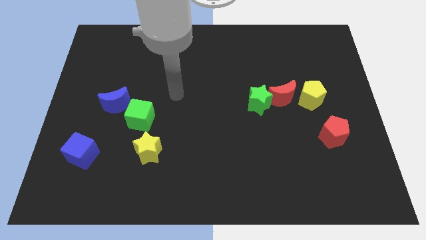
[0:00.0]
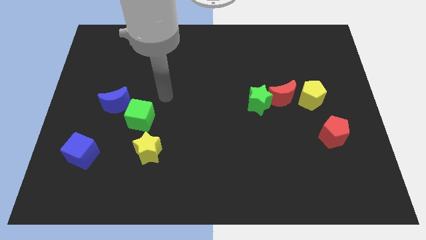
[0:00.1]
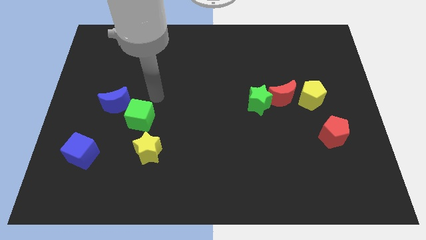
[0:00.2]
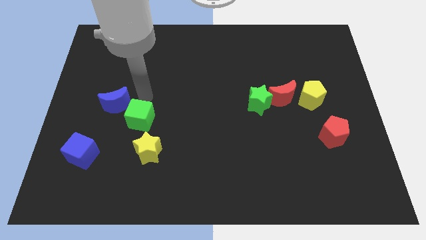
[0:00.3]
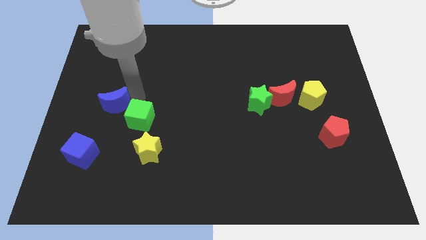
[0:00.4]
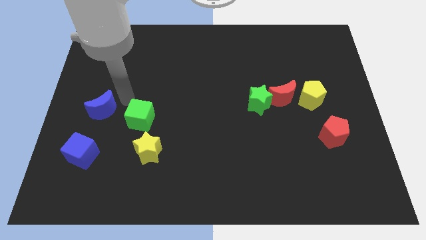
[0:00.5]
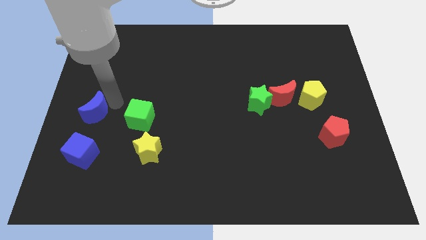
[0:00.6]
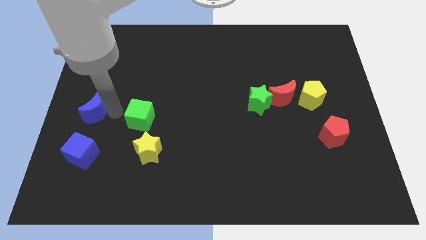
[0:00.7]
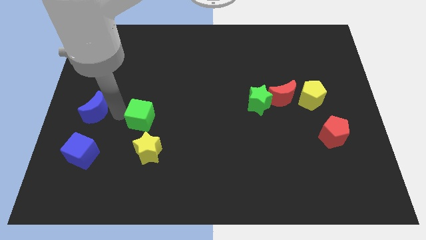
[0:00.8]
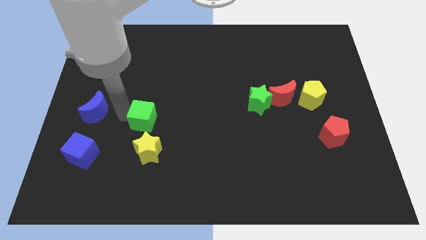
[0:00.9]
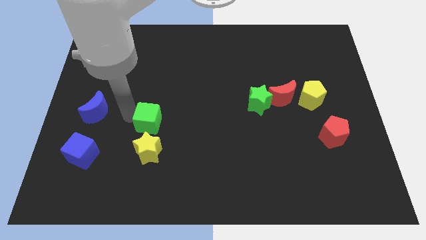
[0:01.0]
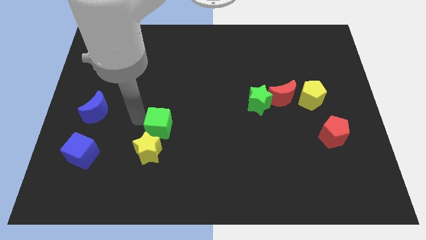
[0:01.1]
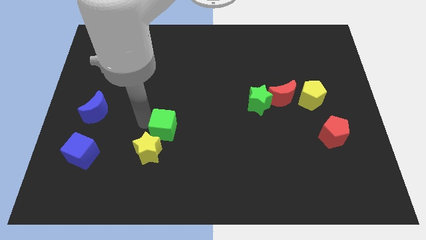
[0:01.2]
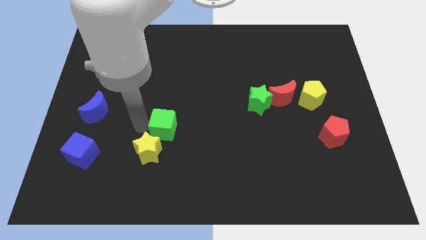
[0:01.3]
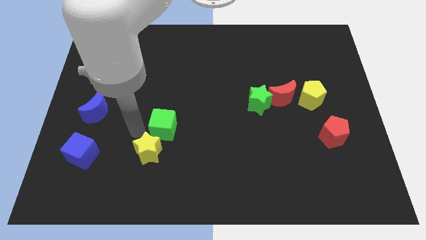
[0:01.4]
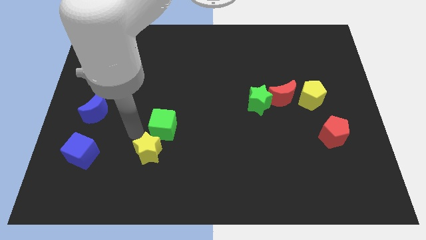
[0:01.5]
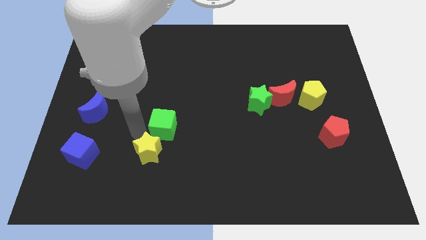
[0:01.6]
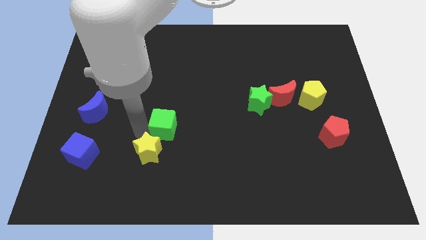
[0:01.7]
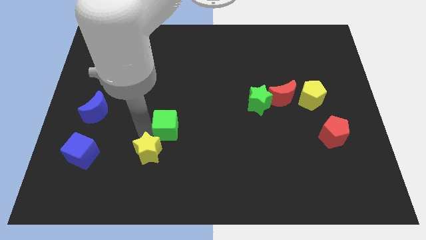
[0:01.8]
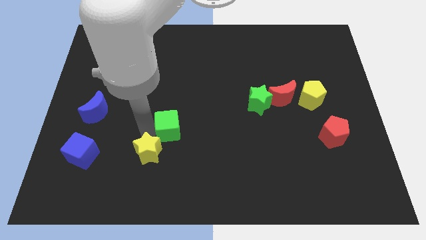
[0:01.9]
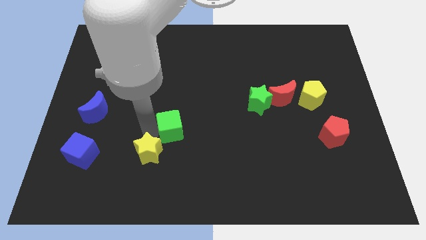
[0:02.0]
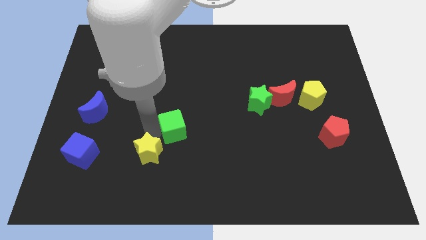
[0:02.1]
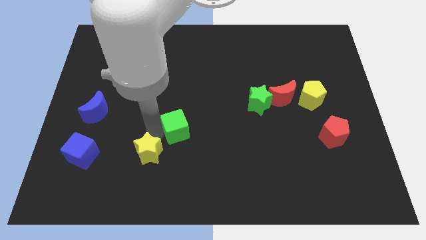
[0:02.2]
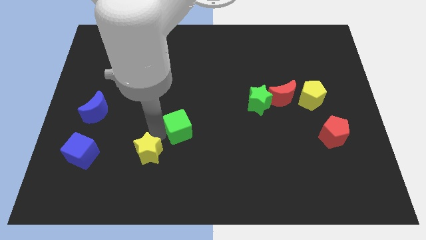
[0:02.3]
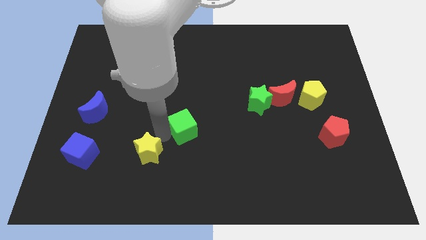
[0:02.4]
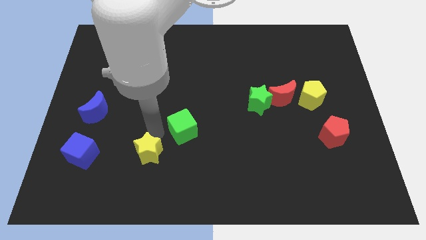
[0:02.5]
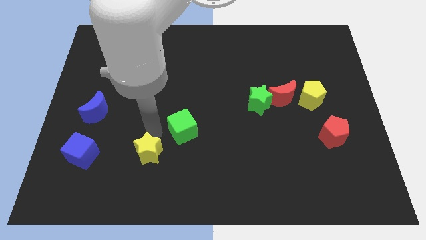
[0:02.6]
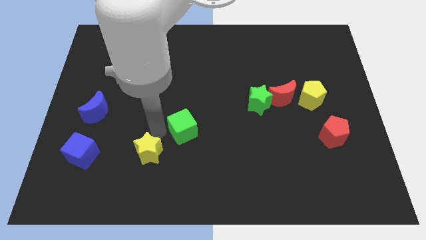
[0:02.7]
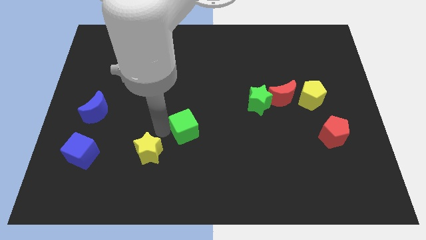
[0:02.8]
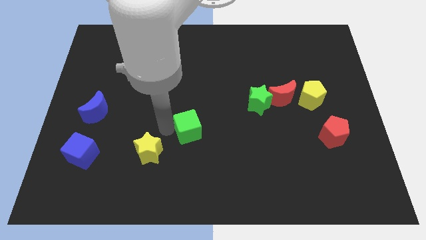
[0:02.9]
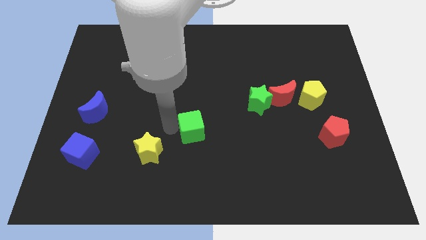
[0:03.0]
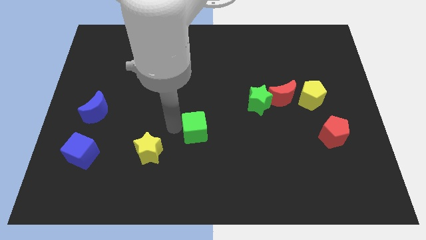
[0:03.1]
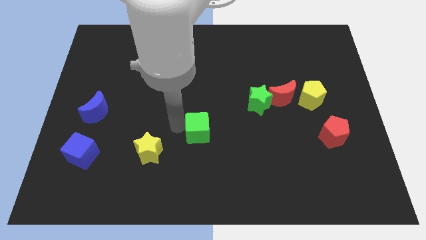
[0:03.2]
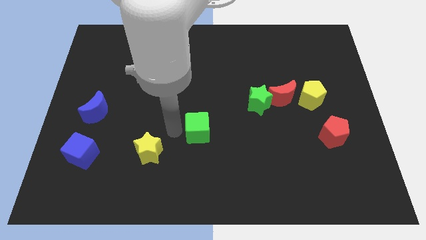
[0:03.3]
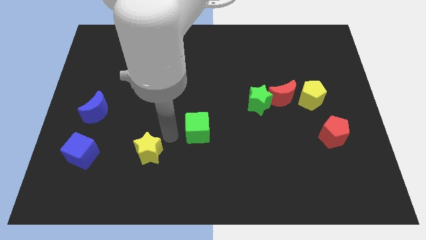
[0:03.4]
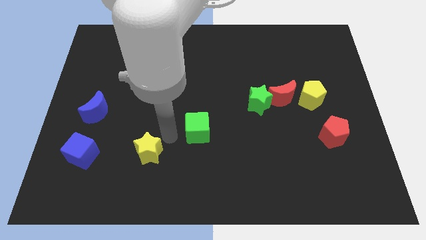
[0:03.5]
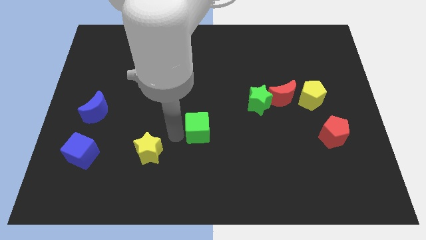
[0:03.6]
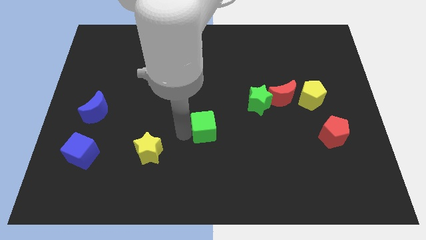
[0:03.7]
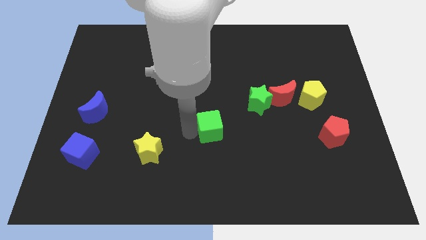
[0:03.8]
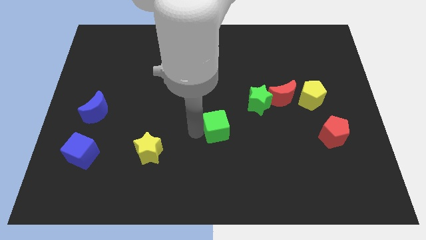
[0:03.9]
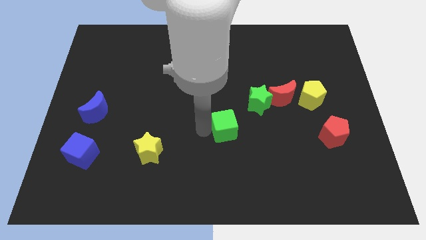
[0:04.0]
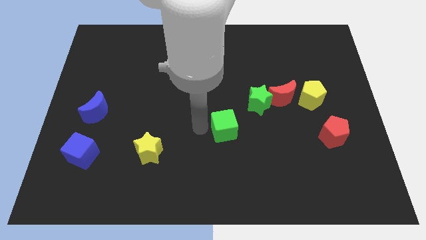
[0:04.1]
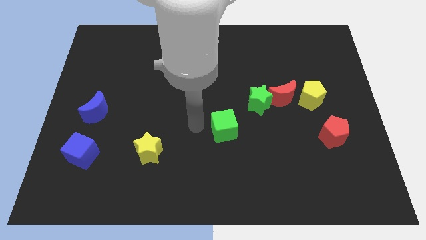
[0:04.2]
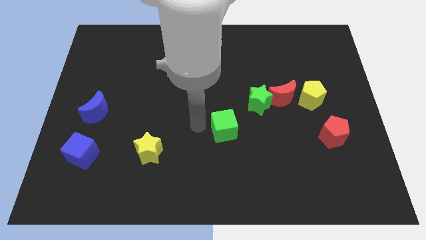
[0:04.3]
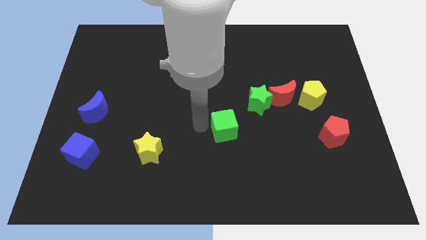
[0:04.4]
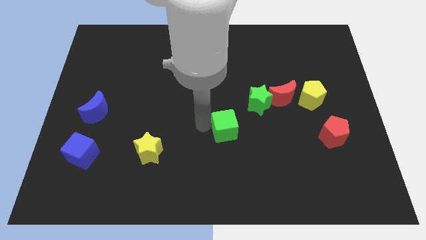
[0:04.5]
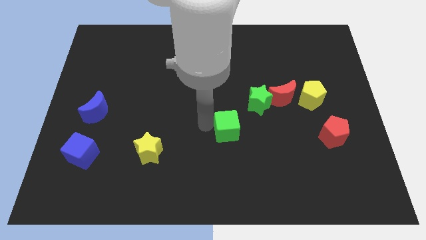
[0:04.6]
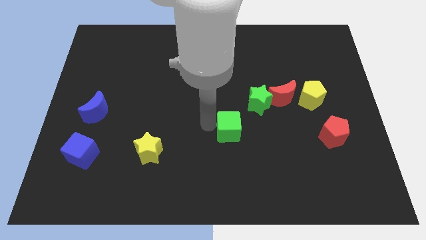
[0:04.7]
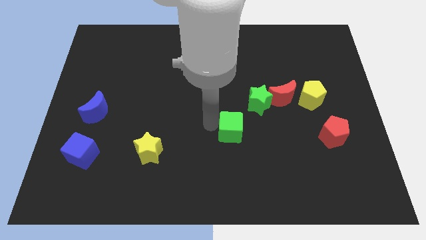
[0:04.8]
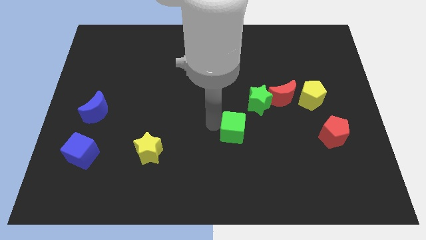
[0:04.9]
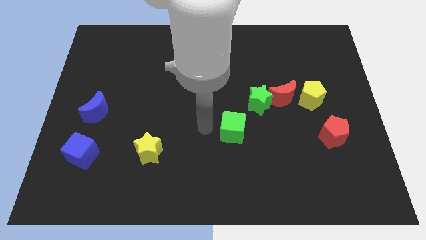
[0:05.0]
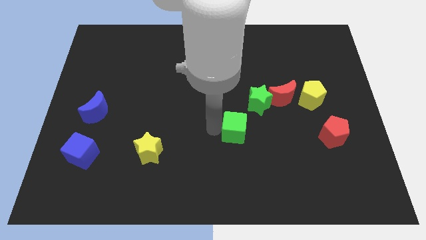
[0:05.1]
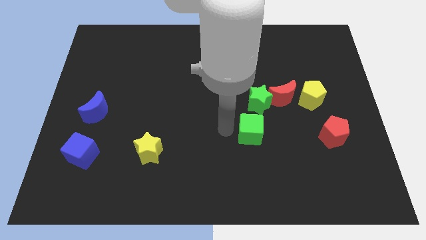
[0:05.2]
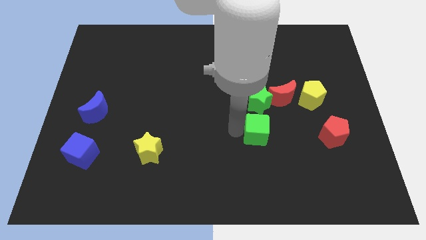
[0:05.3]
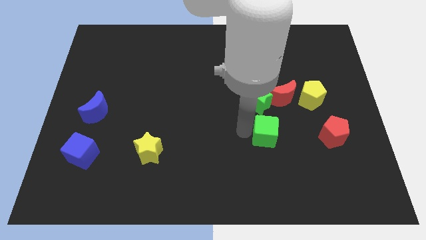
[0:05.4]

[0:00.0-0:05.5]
slide the green cube to the bottom side of the red moon

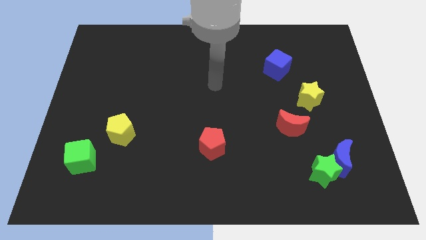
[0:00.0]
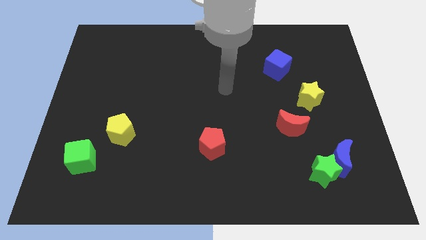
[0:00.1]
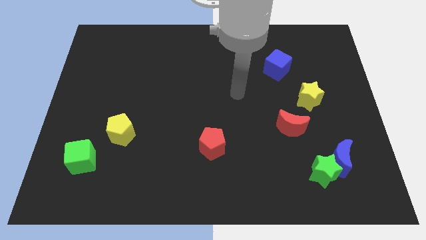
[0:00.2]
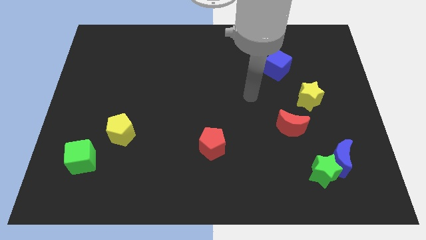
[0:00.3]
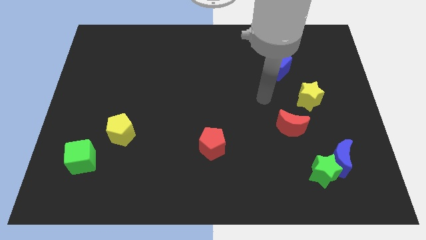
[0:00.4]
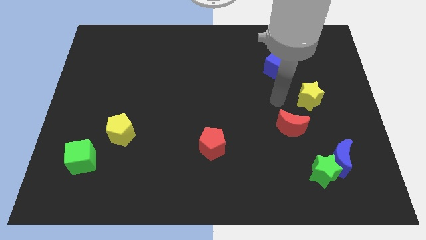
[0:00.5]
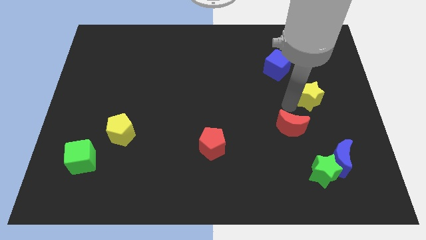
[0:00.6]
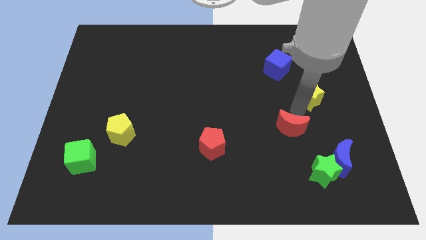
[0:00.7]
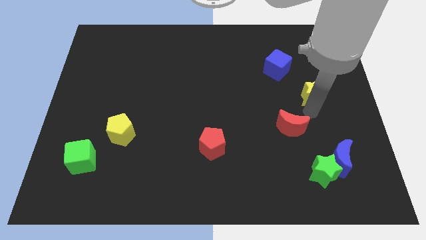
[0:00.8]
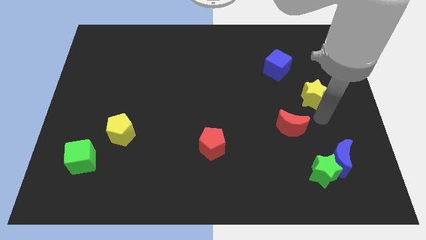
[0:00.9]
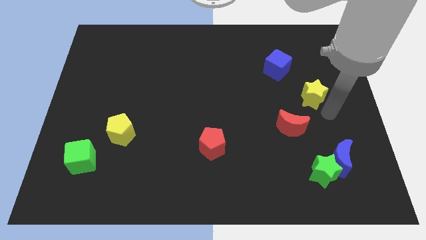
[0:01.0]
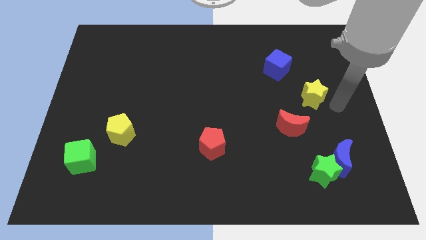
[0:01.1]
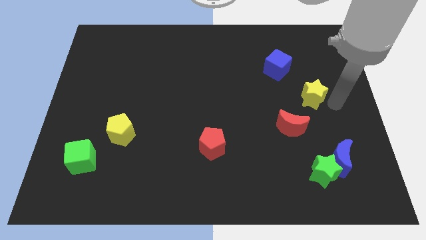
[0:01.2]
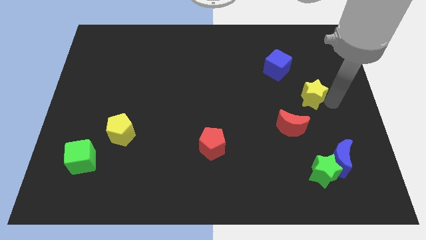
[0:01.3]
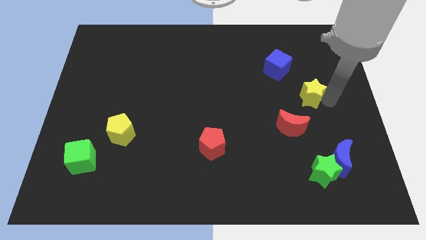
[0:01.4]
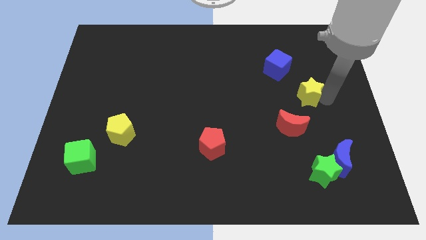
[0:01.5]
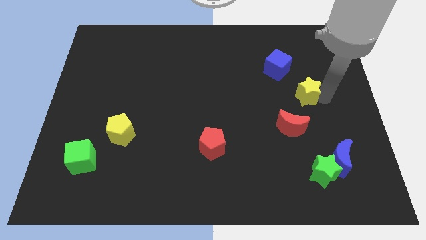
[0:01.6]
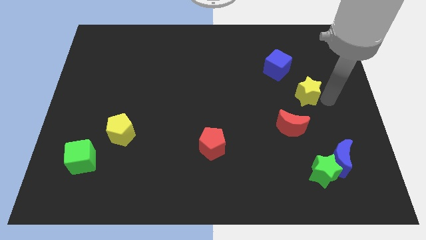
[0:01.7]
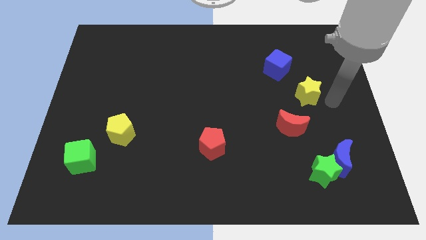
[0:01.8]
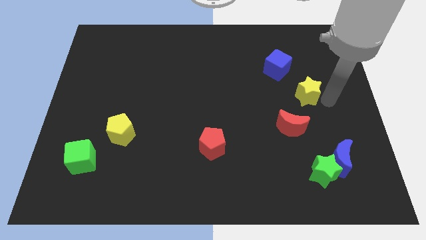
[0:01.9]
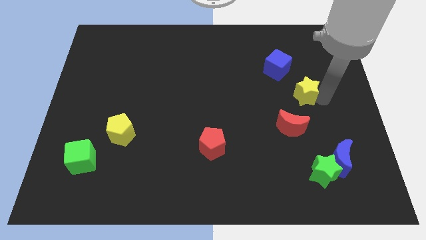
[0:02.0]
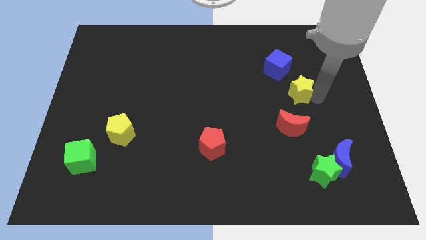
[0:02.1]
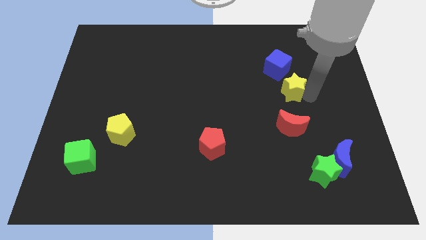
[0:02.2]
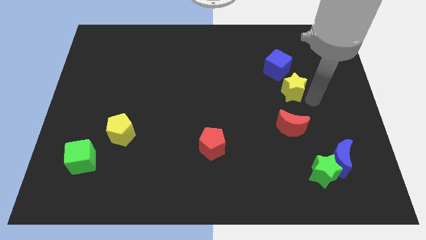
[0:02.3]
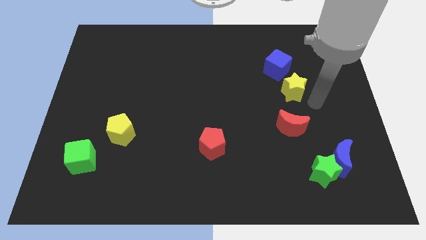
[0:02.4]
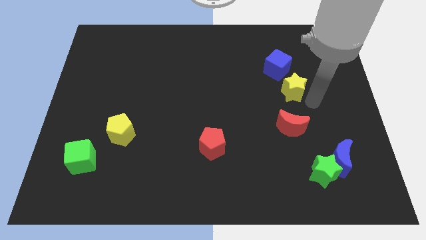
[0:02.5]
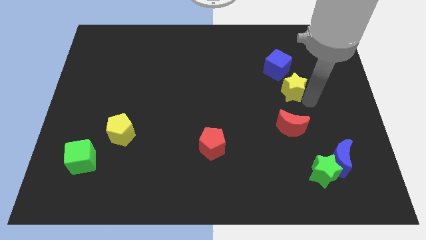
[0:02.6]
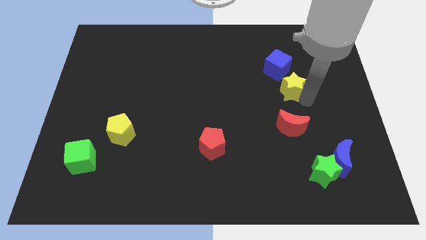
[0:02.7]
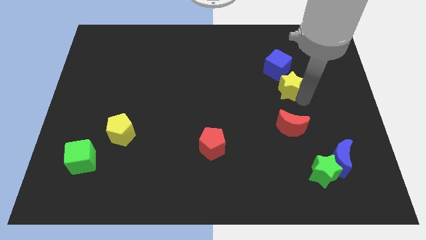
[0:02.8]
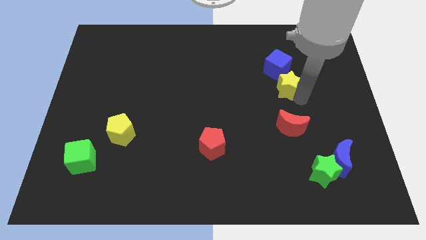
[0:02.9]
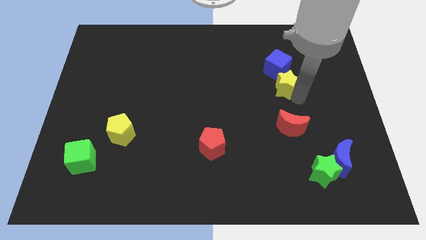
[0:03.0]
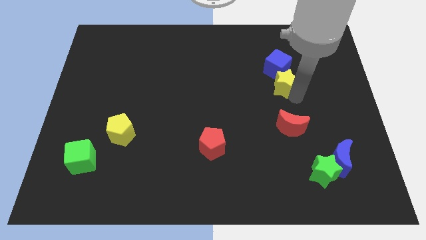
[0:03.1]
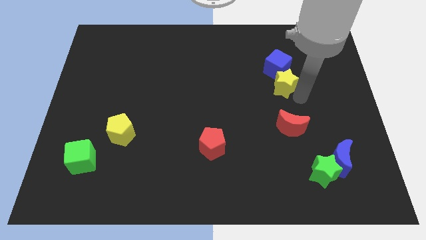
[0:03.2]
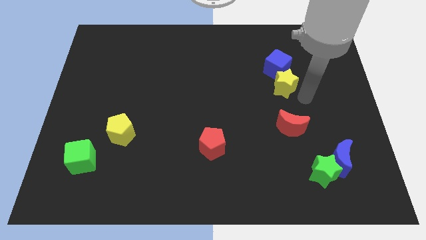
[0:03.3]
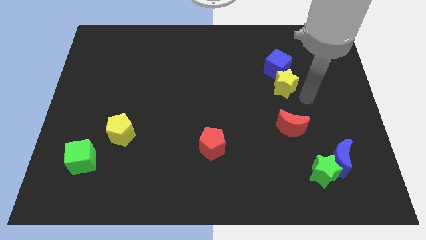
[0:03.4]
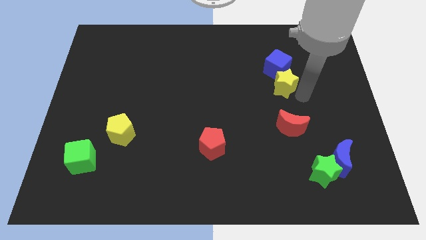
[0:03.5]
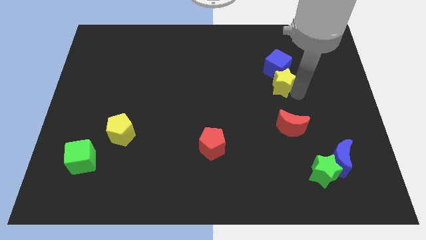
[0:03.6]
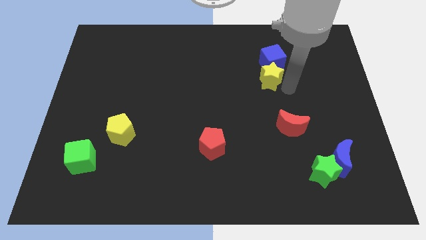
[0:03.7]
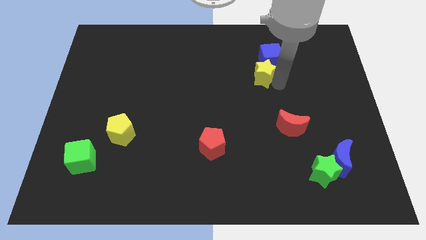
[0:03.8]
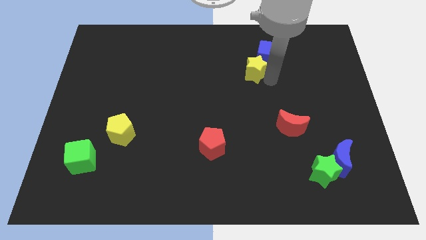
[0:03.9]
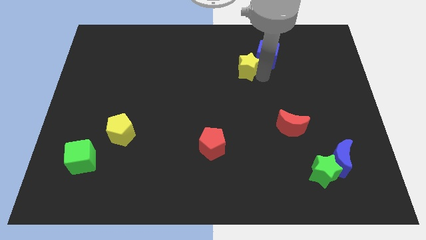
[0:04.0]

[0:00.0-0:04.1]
move the yellow star to the left of the blue cube
